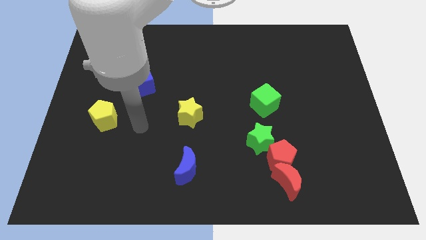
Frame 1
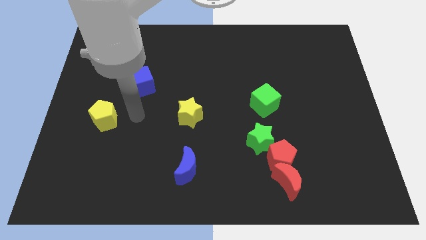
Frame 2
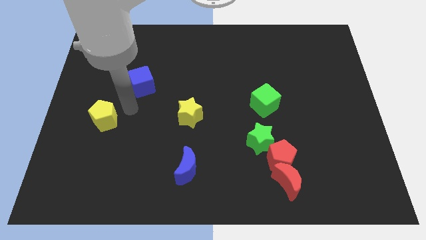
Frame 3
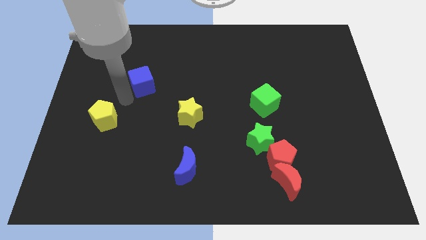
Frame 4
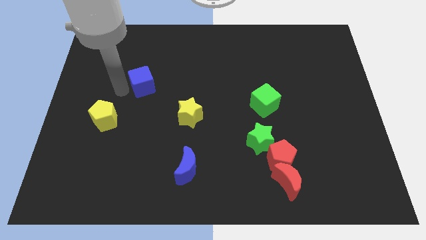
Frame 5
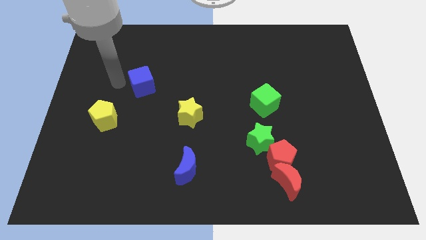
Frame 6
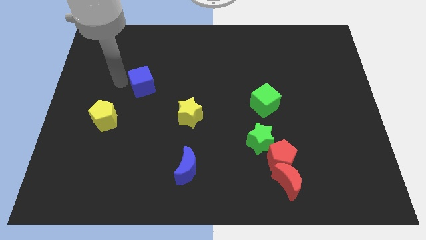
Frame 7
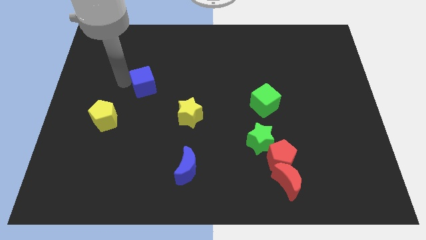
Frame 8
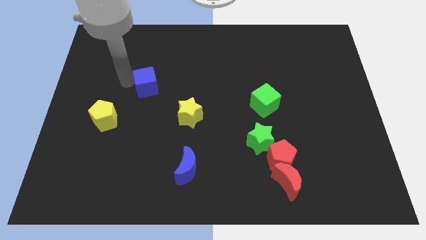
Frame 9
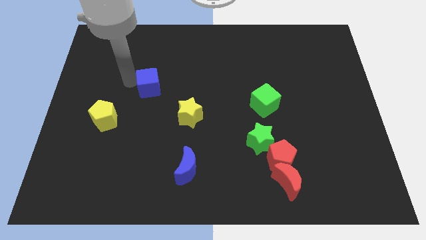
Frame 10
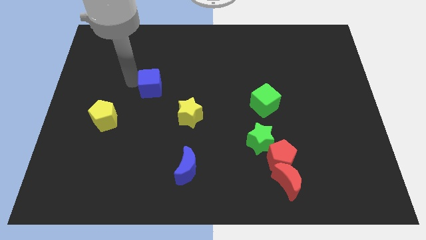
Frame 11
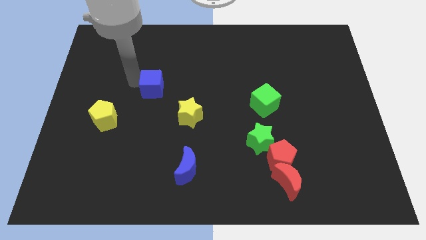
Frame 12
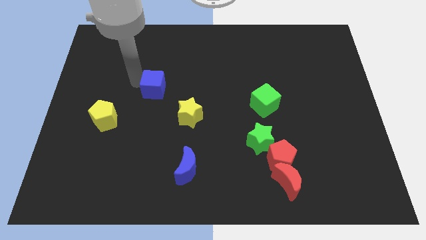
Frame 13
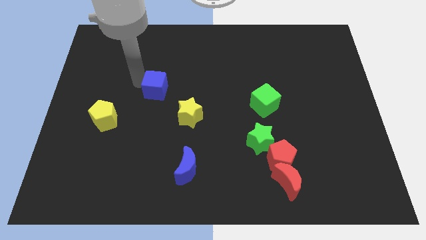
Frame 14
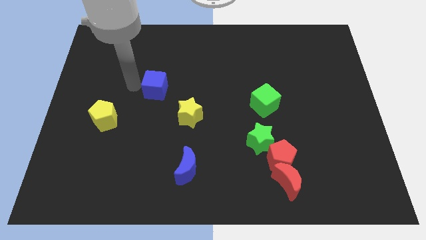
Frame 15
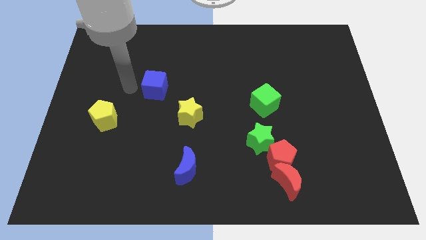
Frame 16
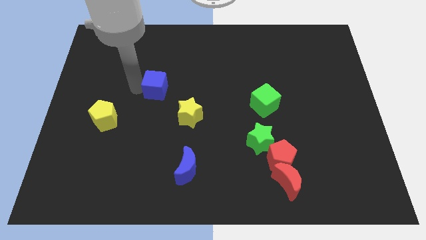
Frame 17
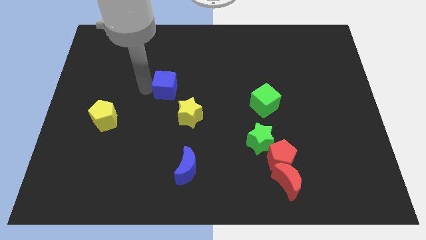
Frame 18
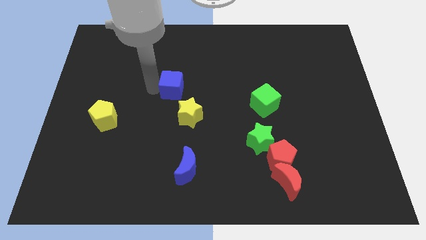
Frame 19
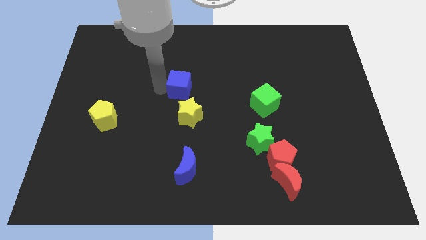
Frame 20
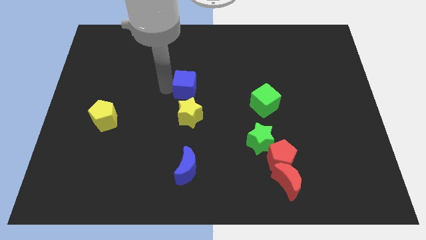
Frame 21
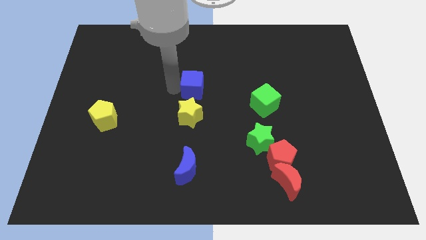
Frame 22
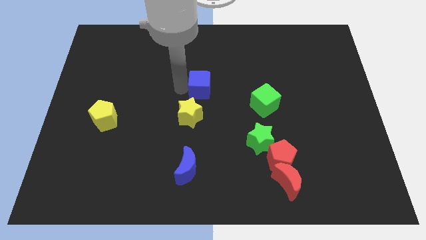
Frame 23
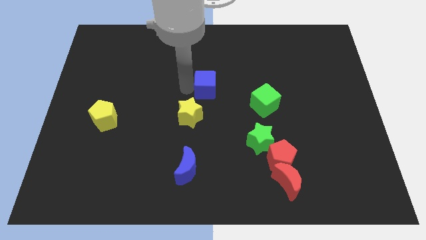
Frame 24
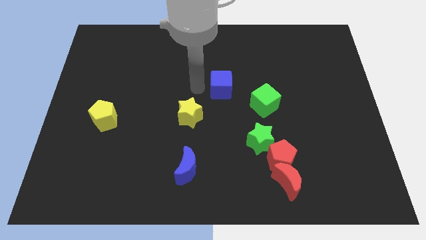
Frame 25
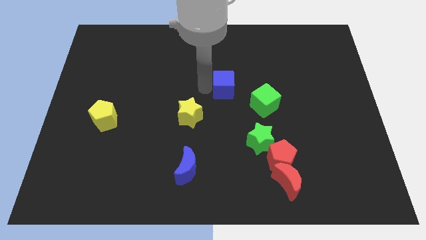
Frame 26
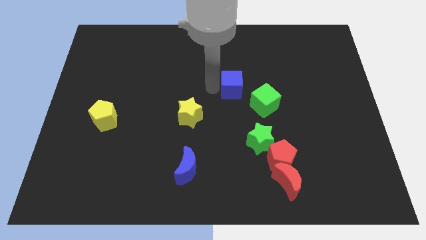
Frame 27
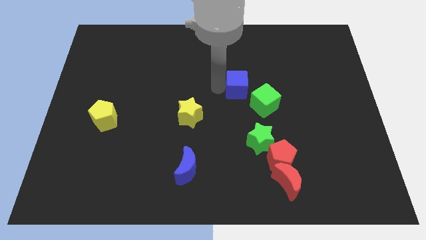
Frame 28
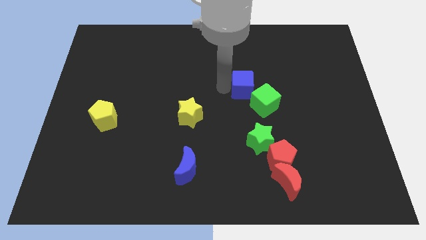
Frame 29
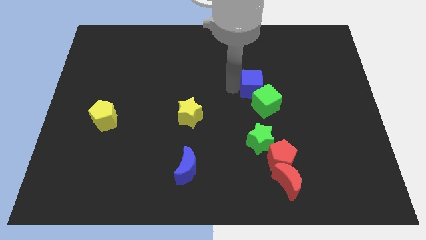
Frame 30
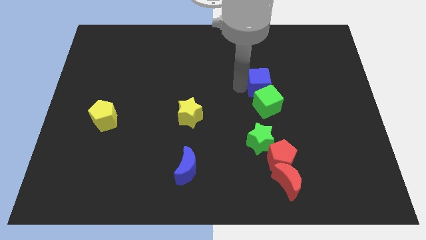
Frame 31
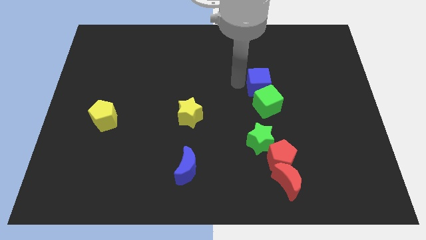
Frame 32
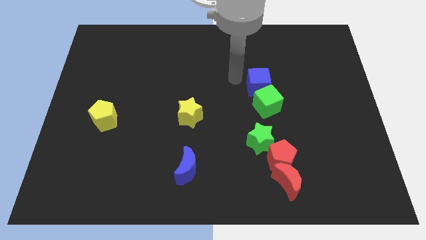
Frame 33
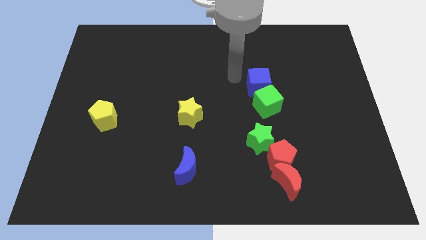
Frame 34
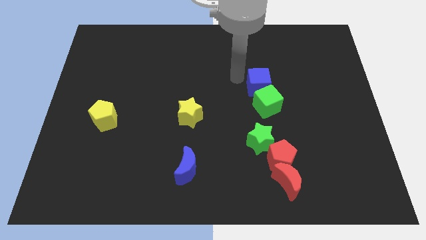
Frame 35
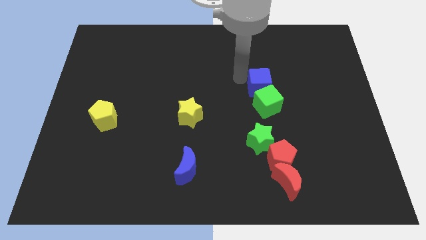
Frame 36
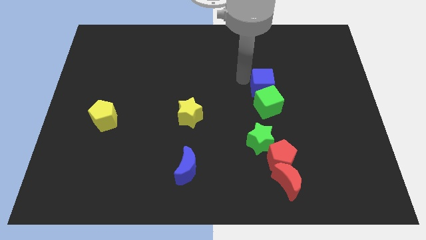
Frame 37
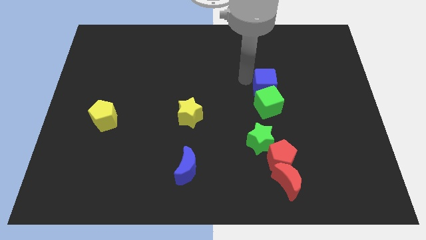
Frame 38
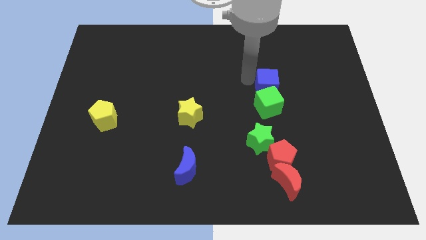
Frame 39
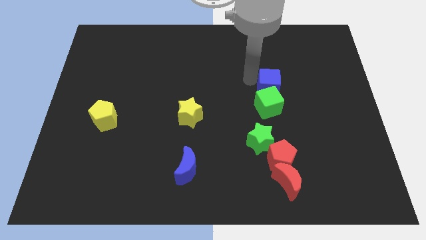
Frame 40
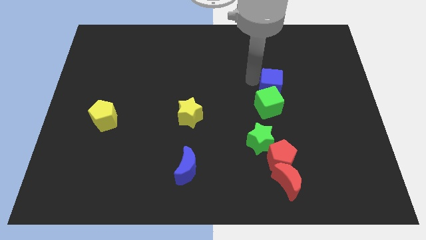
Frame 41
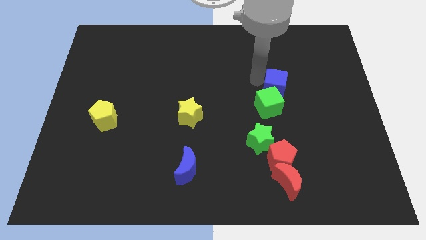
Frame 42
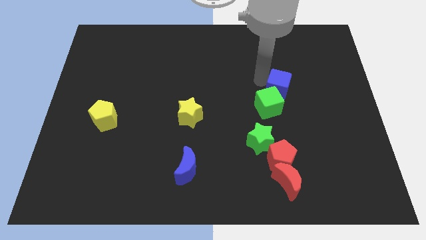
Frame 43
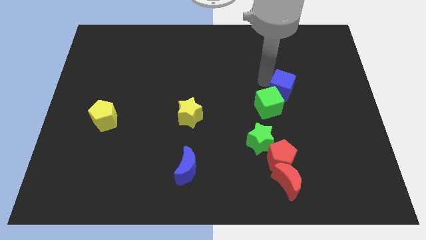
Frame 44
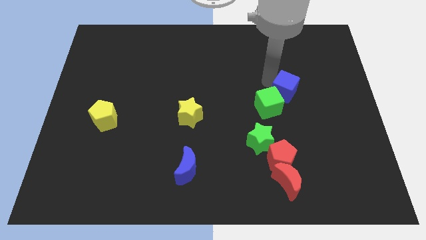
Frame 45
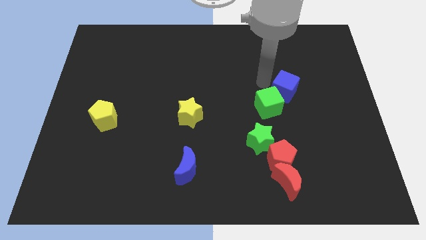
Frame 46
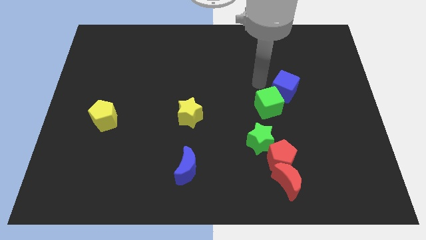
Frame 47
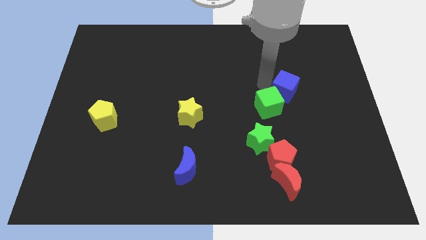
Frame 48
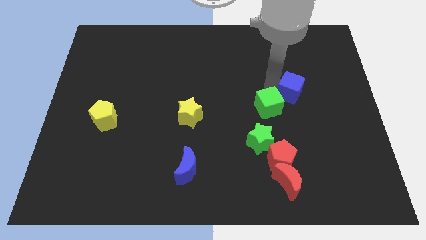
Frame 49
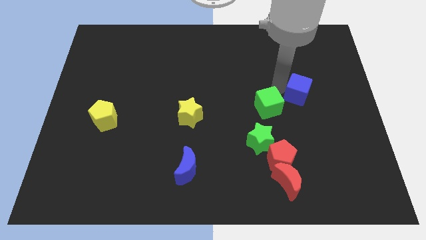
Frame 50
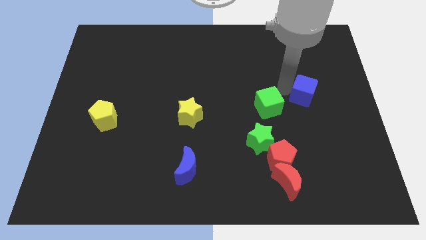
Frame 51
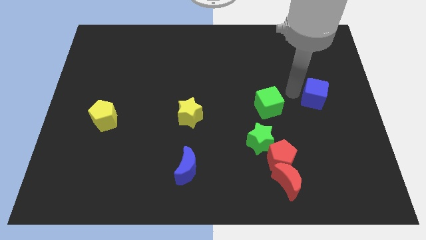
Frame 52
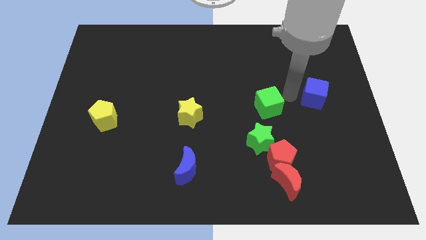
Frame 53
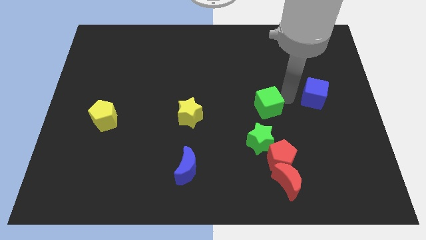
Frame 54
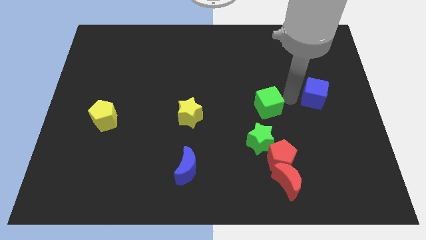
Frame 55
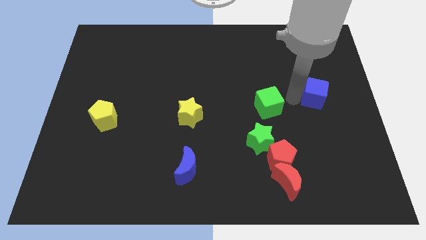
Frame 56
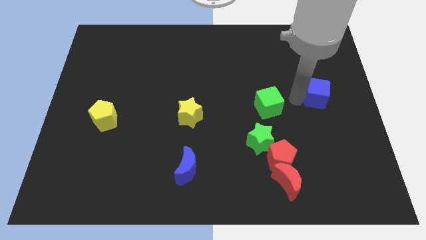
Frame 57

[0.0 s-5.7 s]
put the blue cube to the right side

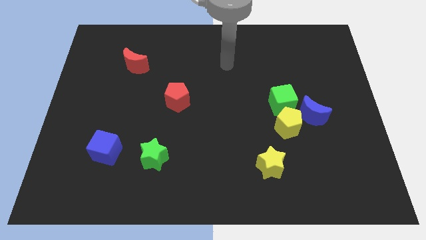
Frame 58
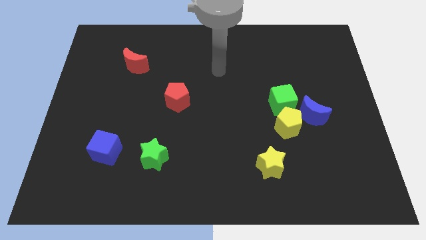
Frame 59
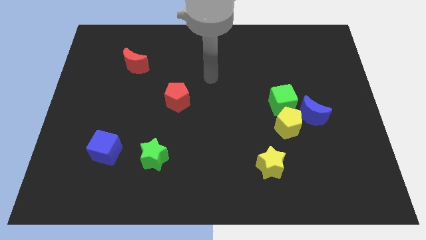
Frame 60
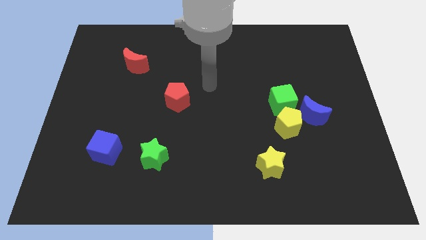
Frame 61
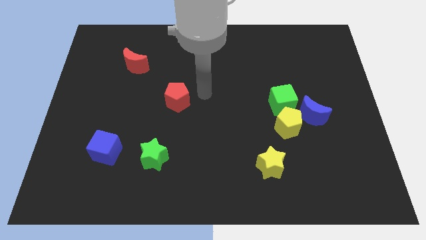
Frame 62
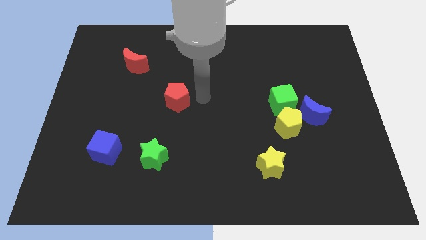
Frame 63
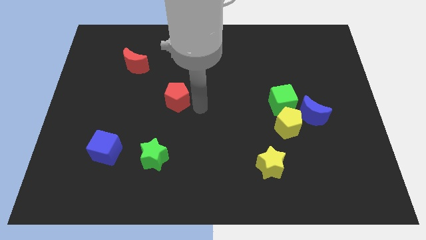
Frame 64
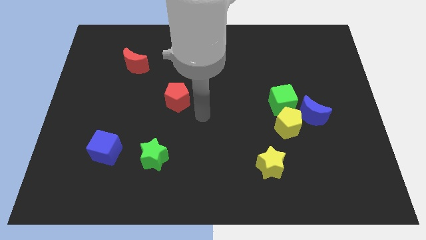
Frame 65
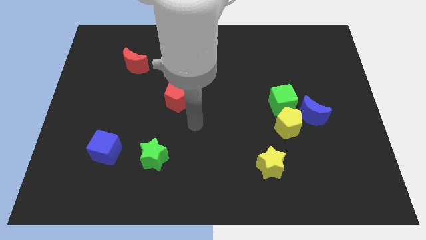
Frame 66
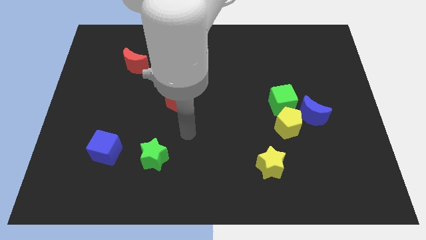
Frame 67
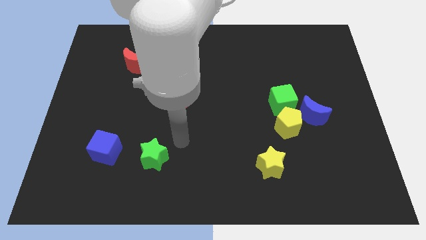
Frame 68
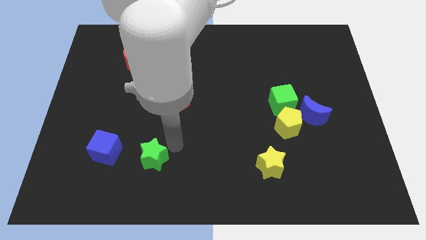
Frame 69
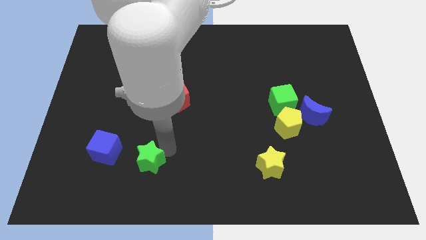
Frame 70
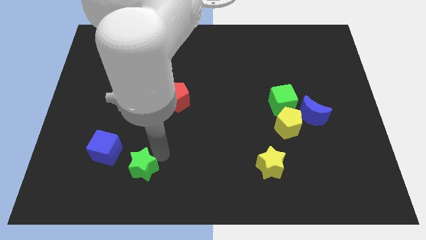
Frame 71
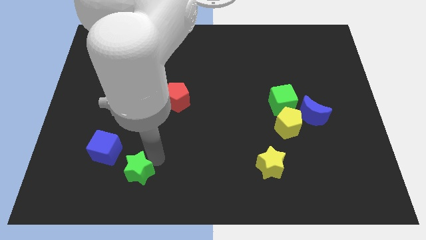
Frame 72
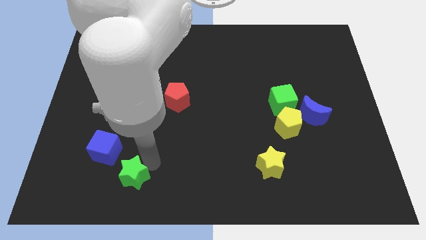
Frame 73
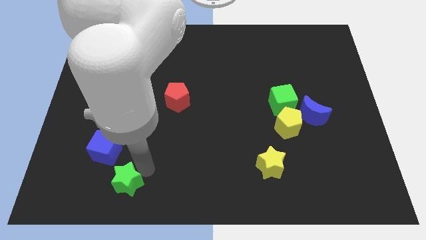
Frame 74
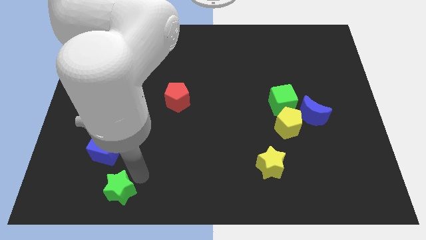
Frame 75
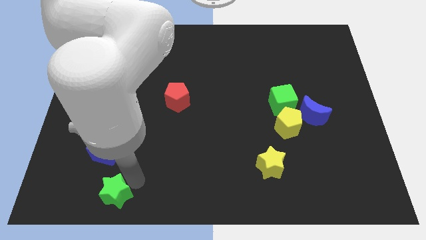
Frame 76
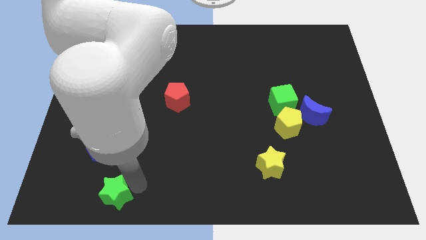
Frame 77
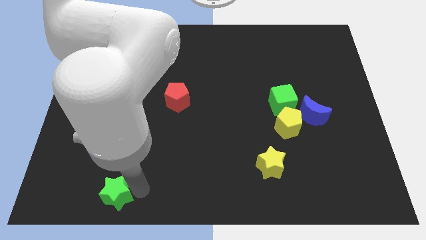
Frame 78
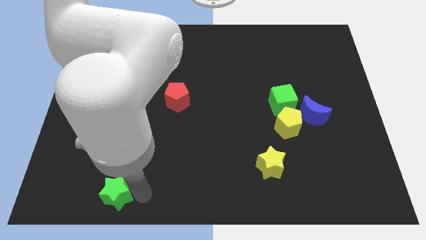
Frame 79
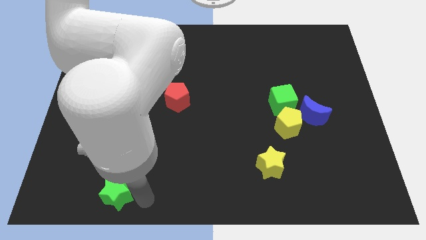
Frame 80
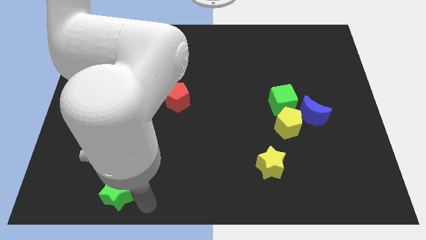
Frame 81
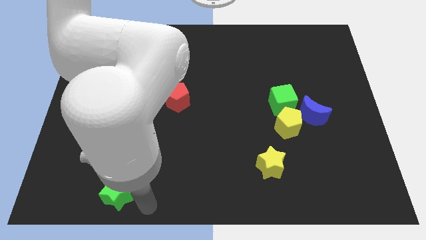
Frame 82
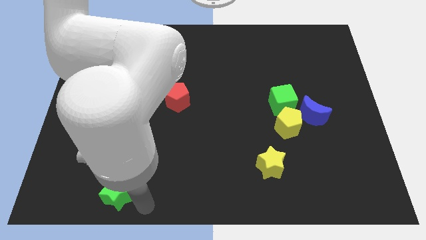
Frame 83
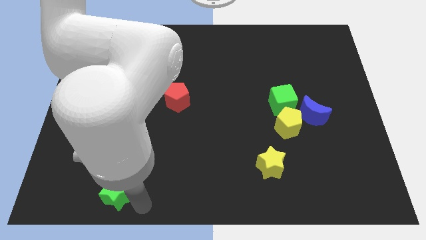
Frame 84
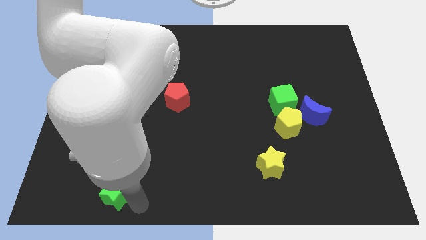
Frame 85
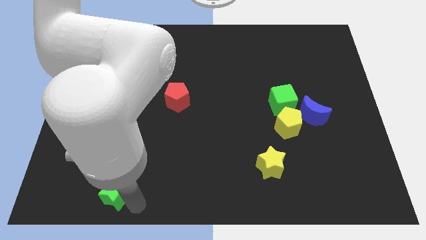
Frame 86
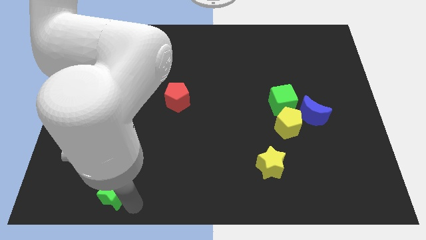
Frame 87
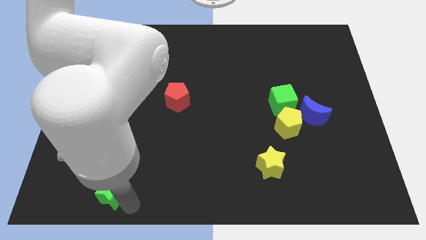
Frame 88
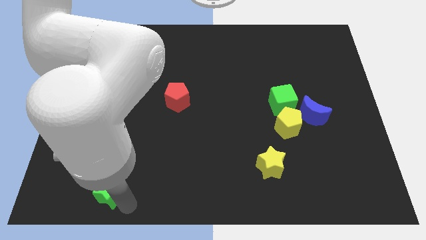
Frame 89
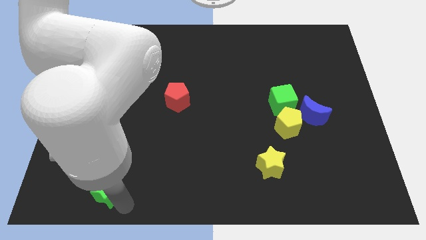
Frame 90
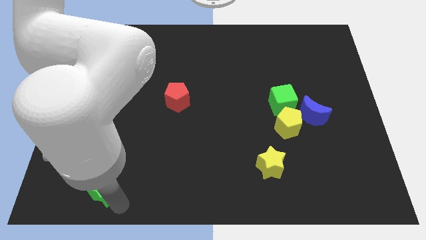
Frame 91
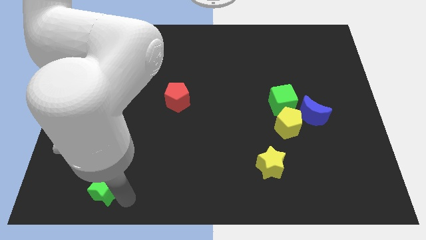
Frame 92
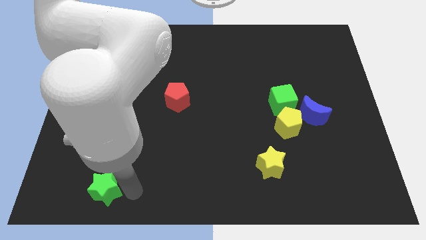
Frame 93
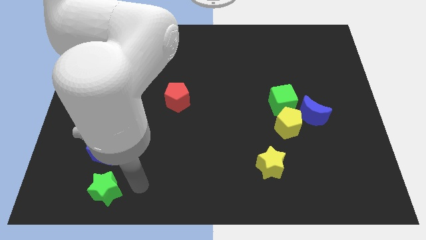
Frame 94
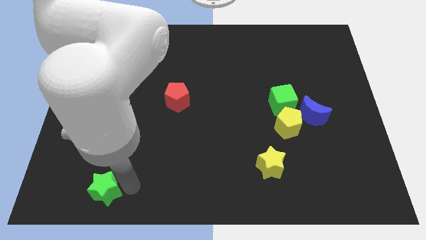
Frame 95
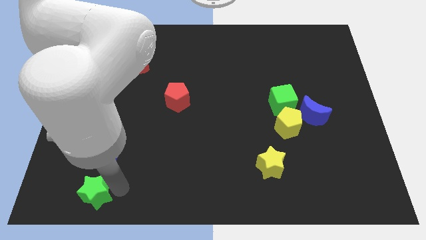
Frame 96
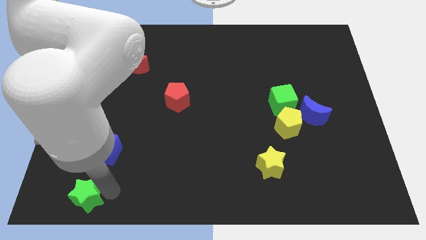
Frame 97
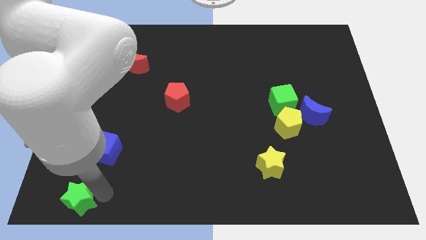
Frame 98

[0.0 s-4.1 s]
put the green star to the lower left corner
